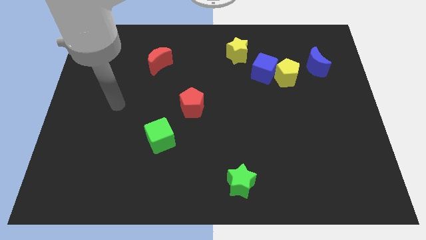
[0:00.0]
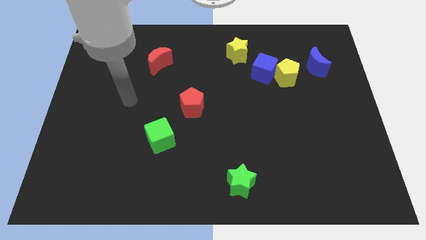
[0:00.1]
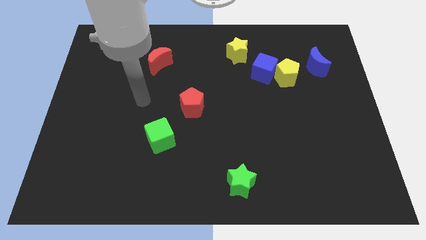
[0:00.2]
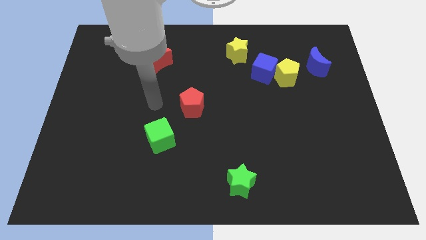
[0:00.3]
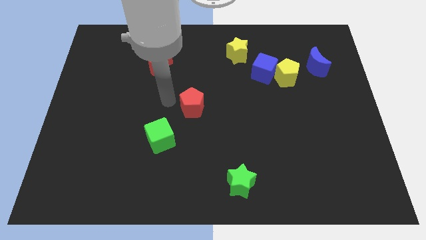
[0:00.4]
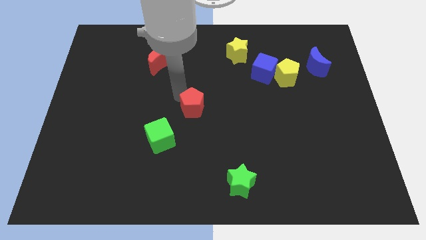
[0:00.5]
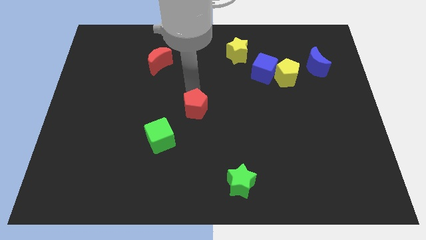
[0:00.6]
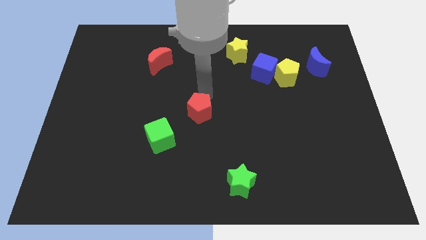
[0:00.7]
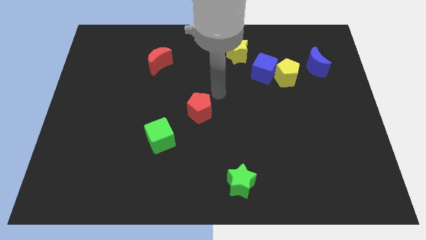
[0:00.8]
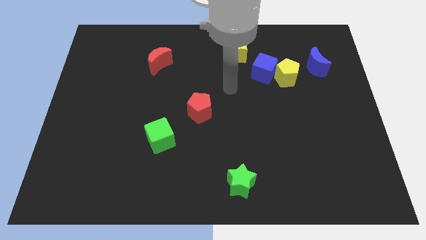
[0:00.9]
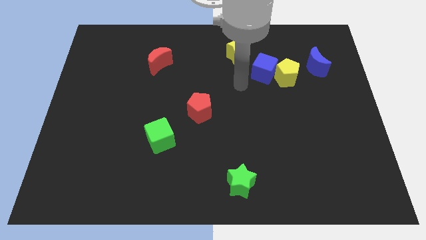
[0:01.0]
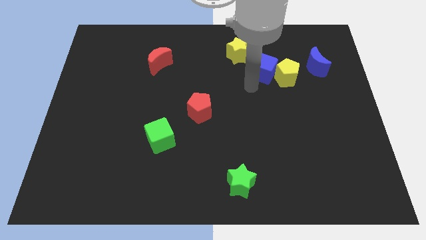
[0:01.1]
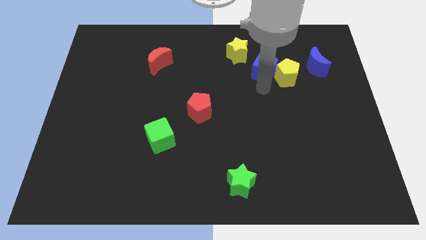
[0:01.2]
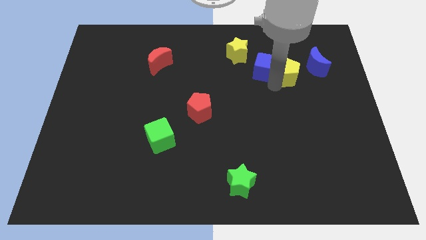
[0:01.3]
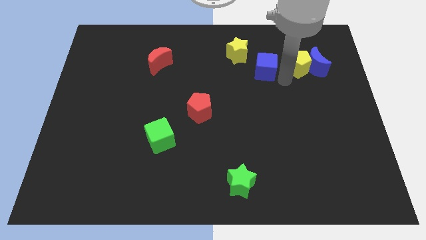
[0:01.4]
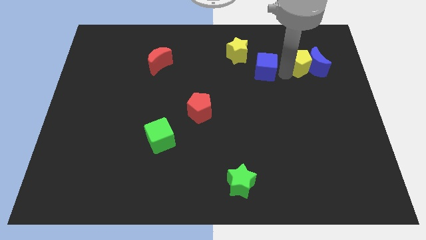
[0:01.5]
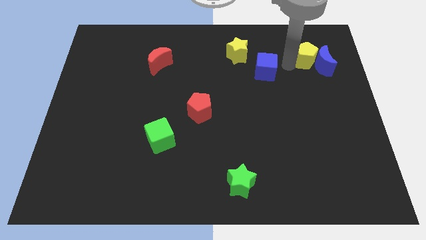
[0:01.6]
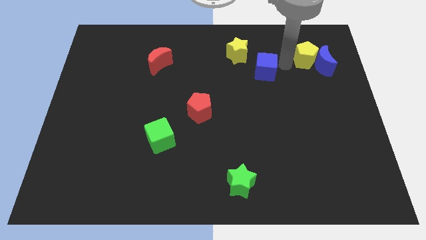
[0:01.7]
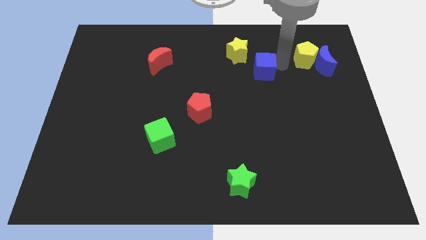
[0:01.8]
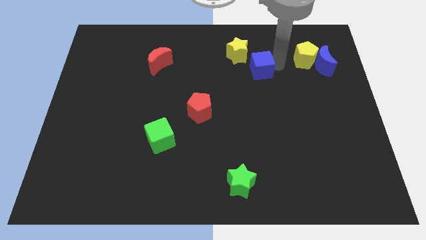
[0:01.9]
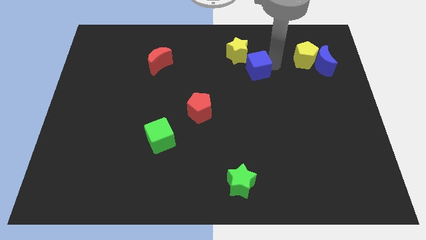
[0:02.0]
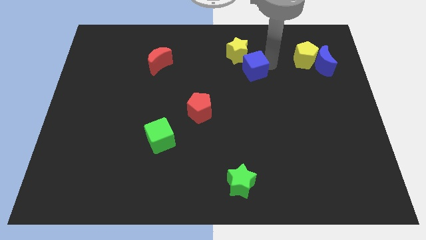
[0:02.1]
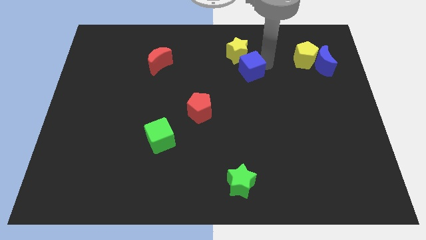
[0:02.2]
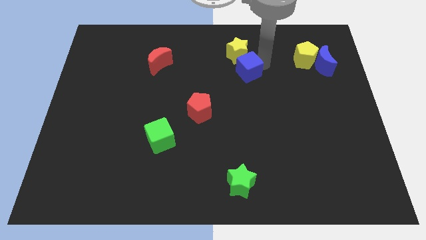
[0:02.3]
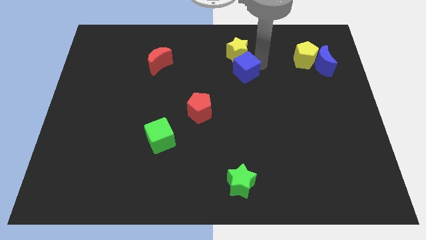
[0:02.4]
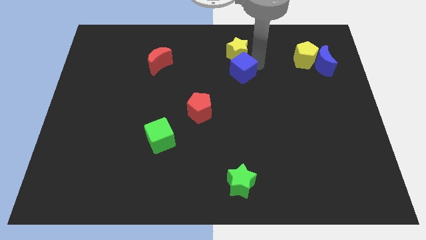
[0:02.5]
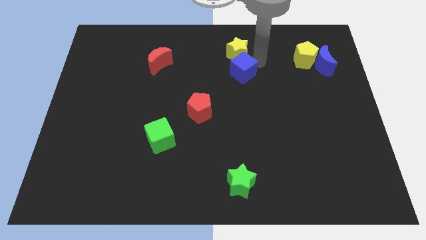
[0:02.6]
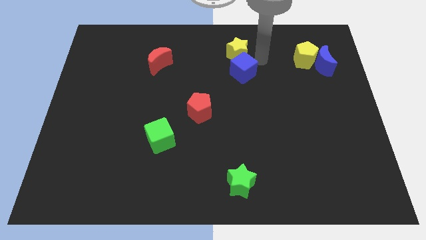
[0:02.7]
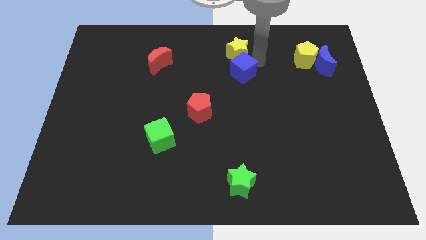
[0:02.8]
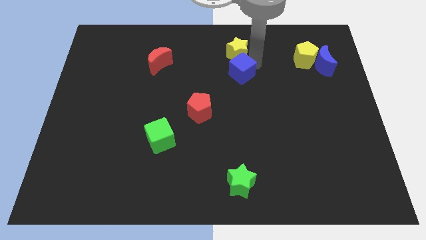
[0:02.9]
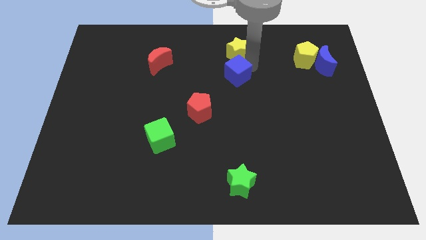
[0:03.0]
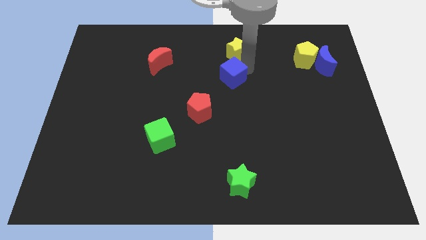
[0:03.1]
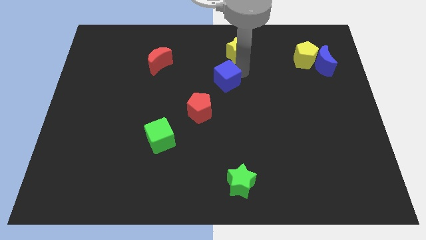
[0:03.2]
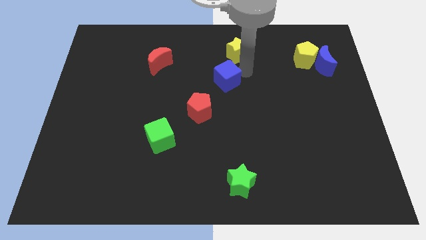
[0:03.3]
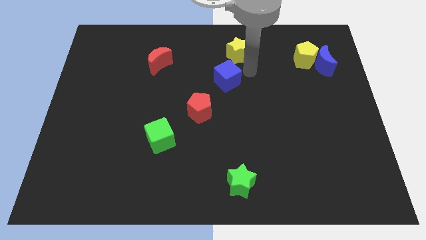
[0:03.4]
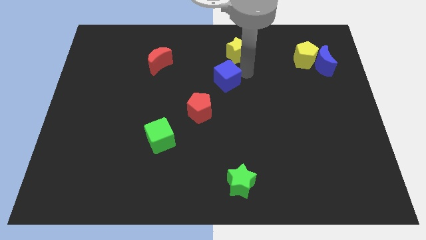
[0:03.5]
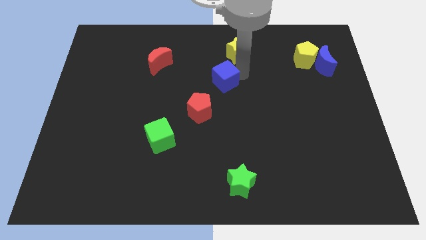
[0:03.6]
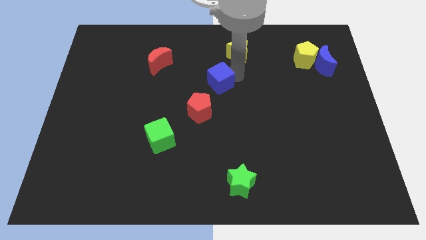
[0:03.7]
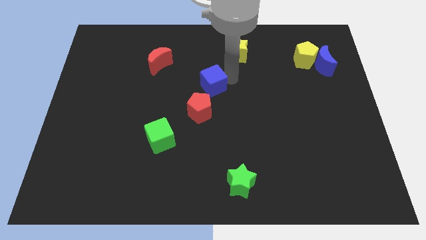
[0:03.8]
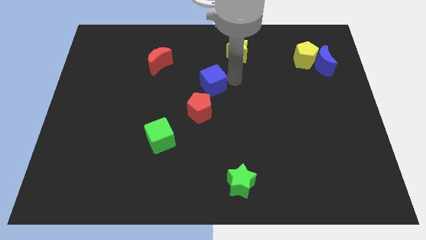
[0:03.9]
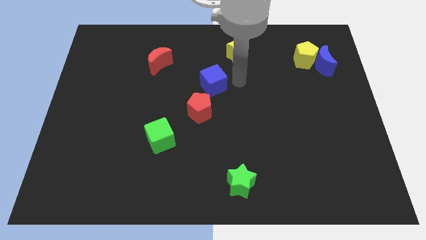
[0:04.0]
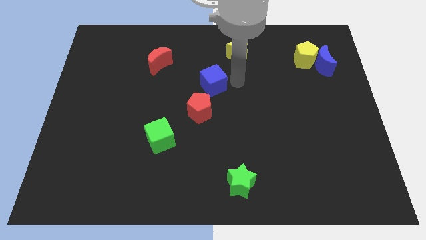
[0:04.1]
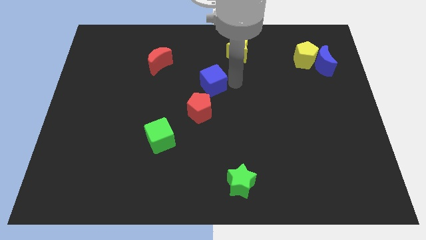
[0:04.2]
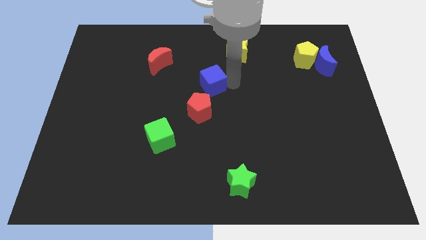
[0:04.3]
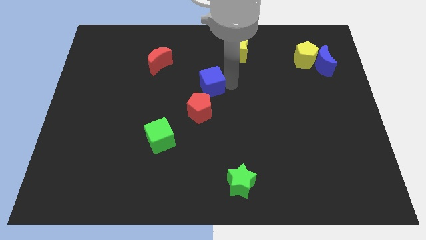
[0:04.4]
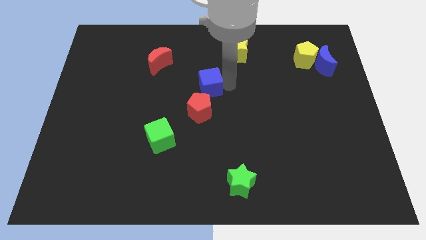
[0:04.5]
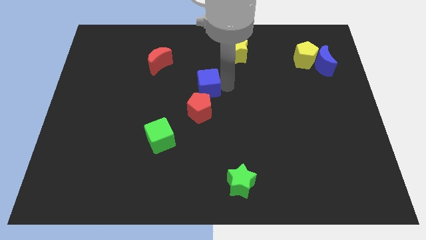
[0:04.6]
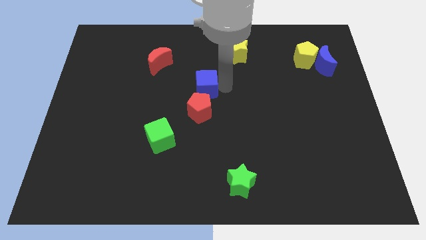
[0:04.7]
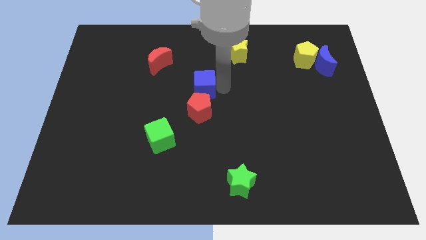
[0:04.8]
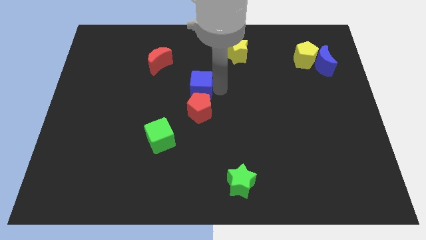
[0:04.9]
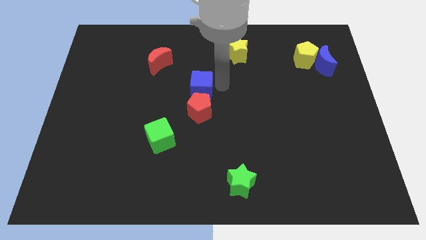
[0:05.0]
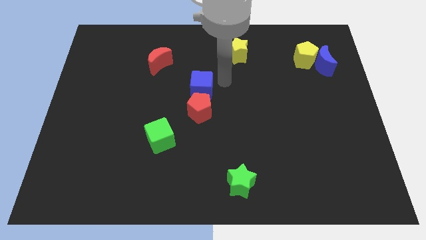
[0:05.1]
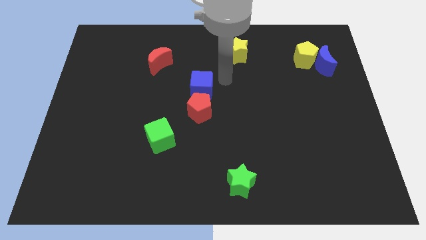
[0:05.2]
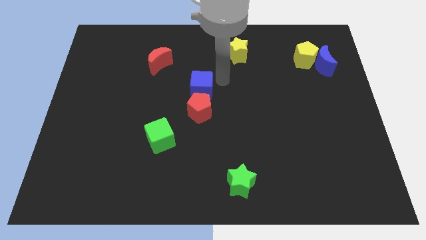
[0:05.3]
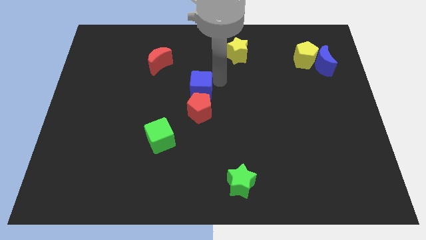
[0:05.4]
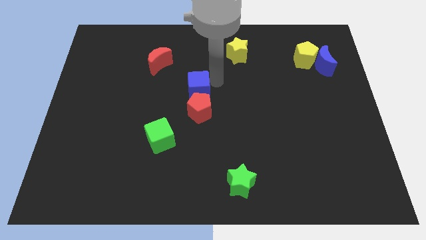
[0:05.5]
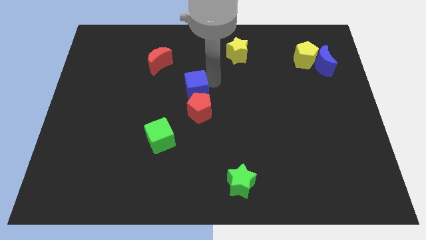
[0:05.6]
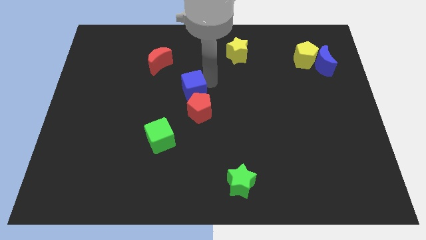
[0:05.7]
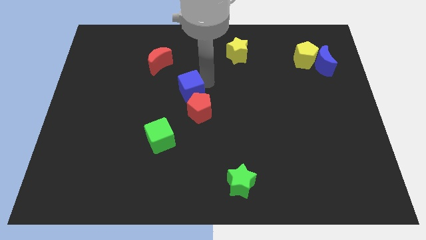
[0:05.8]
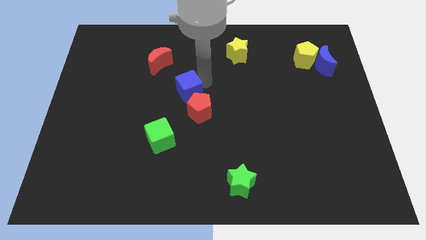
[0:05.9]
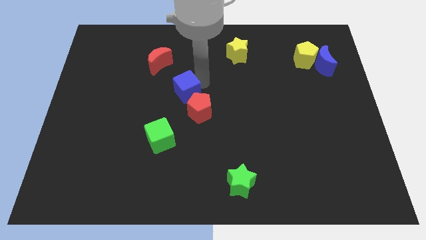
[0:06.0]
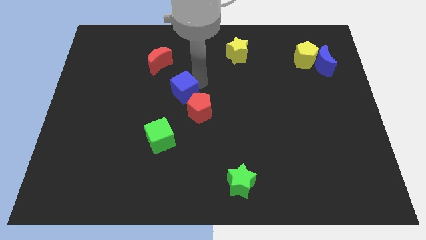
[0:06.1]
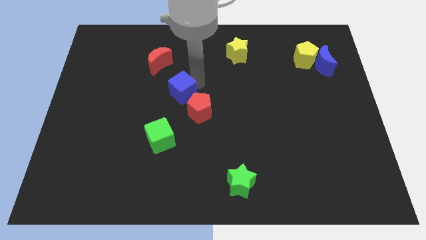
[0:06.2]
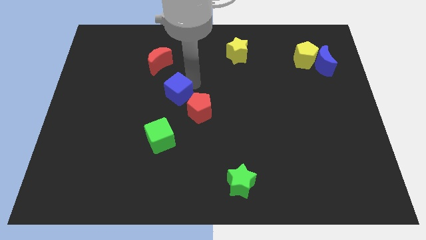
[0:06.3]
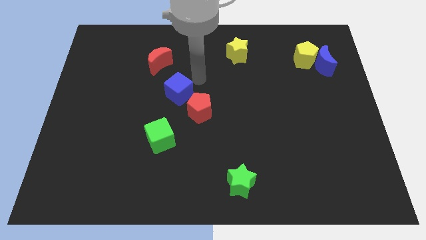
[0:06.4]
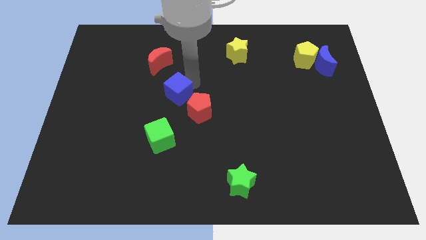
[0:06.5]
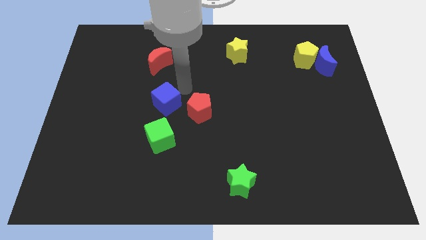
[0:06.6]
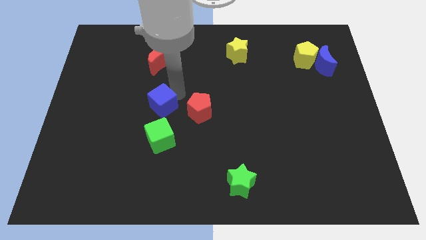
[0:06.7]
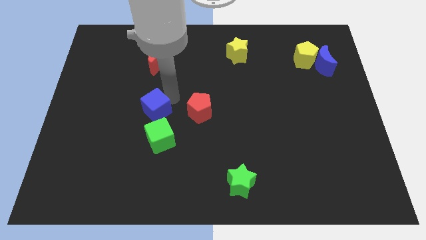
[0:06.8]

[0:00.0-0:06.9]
slide the blue cube to the top left side of the green cube

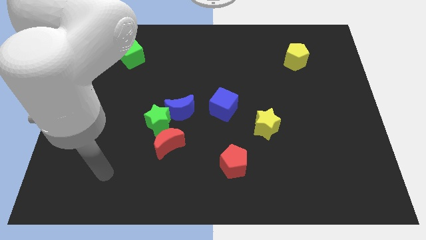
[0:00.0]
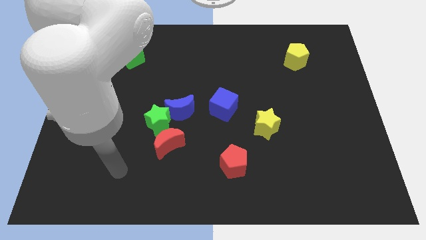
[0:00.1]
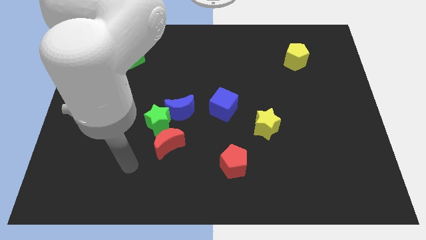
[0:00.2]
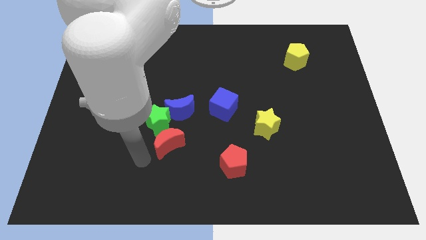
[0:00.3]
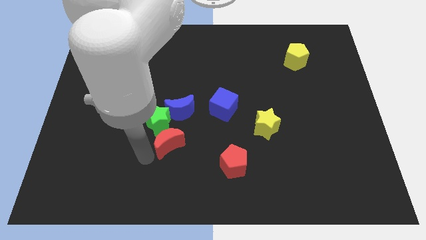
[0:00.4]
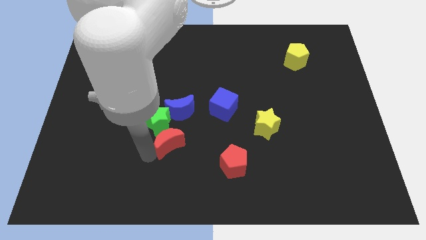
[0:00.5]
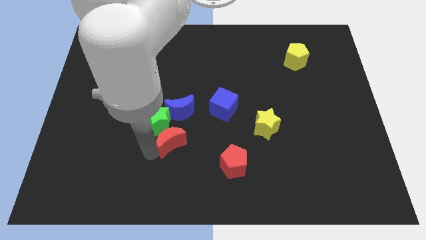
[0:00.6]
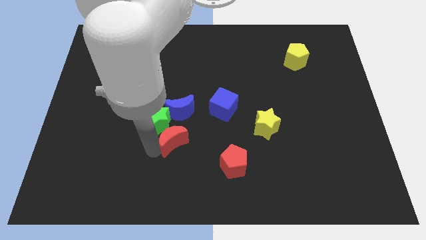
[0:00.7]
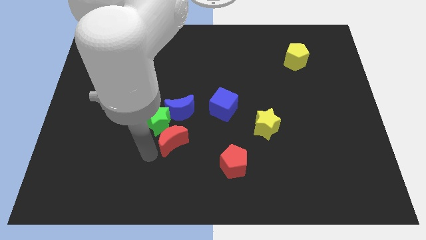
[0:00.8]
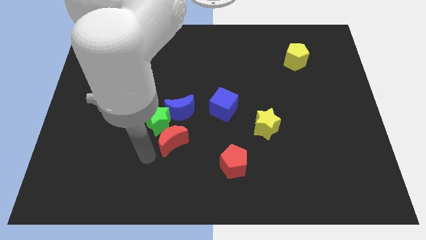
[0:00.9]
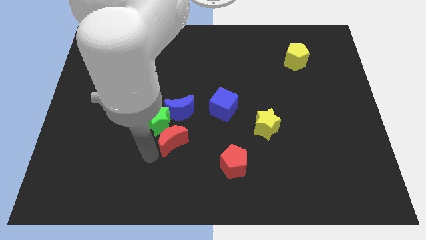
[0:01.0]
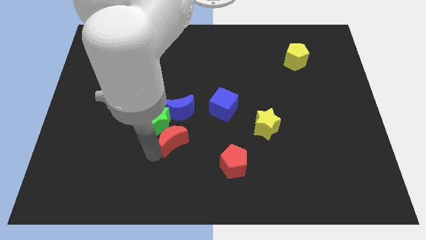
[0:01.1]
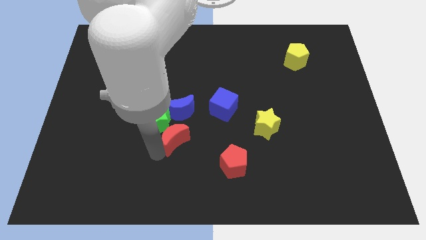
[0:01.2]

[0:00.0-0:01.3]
move the red moon right of the green star
